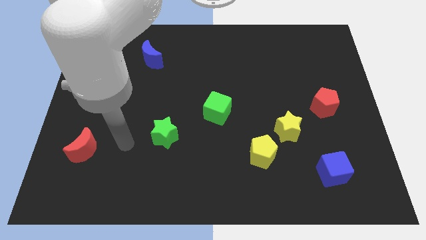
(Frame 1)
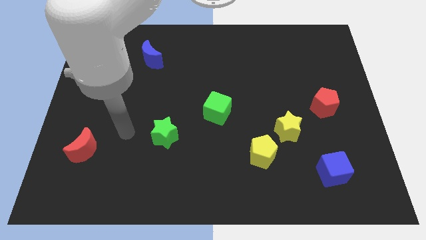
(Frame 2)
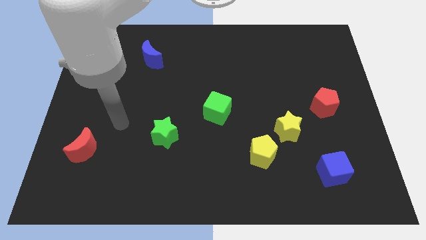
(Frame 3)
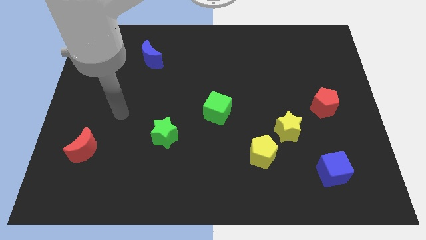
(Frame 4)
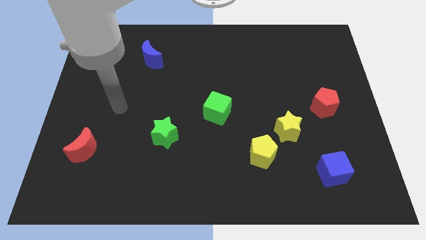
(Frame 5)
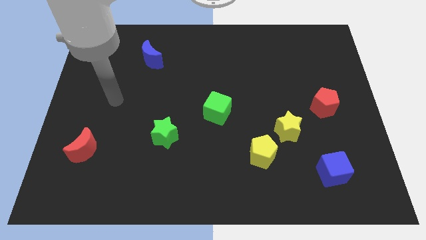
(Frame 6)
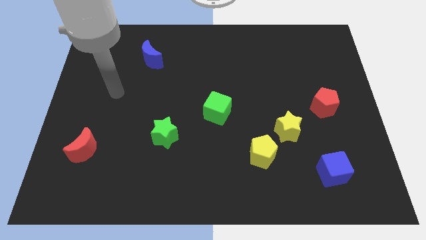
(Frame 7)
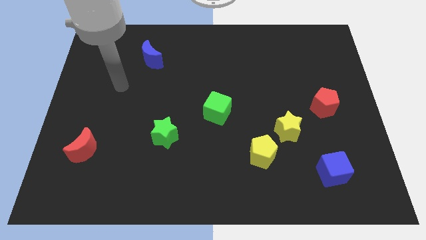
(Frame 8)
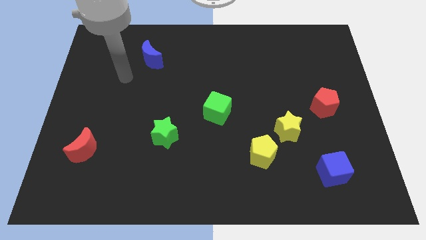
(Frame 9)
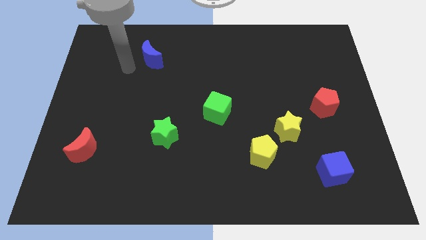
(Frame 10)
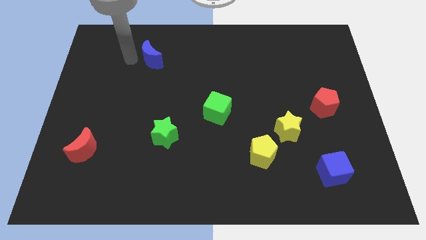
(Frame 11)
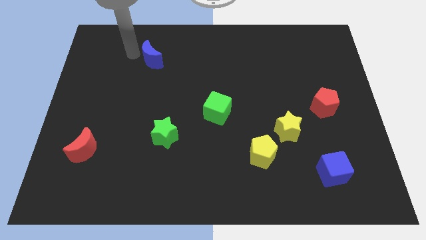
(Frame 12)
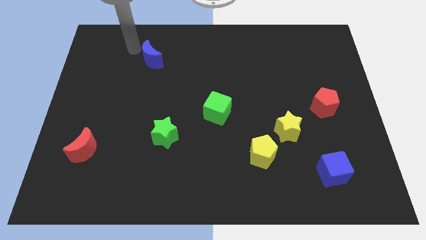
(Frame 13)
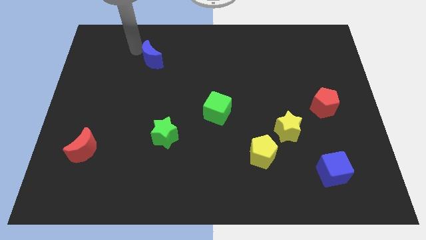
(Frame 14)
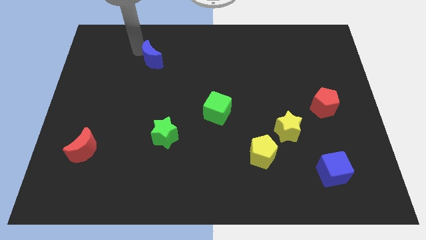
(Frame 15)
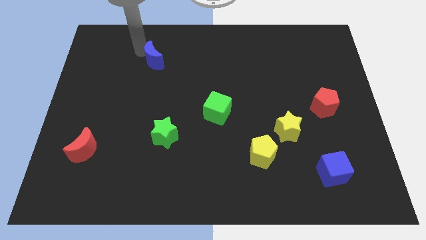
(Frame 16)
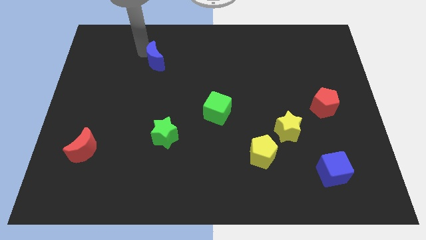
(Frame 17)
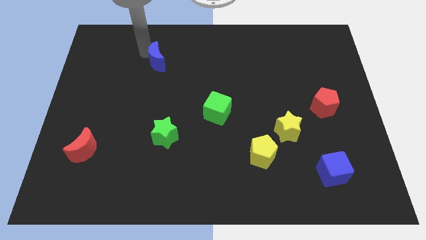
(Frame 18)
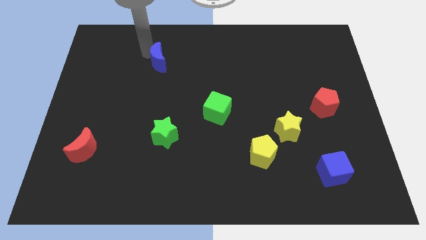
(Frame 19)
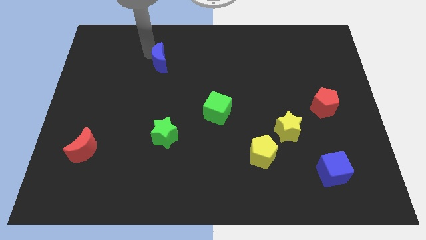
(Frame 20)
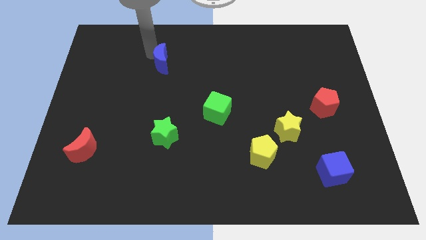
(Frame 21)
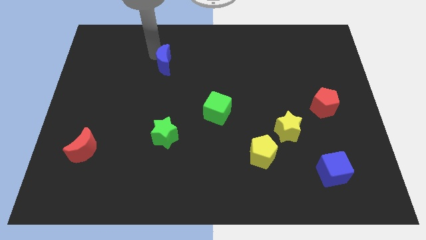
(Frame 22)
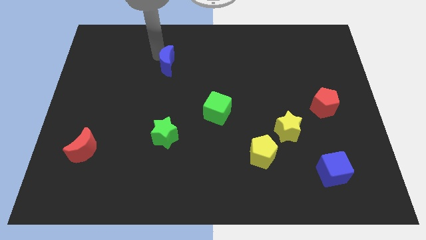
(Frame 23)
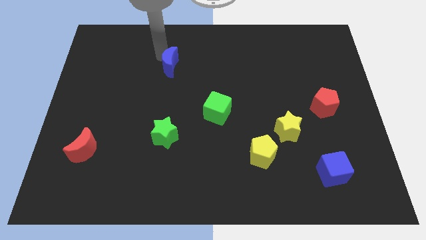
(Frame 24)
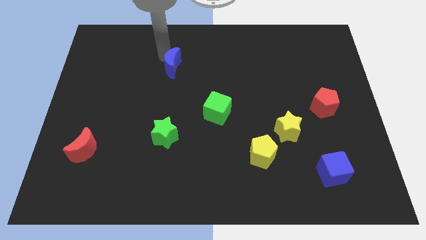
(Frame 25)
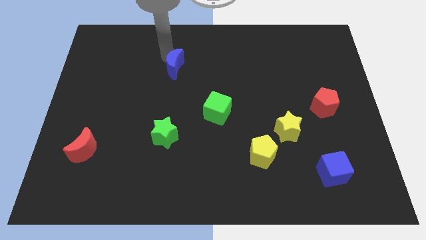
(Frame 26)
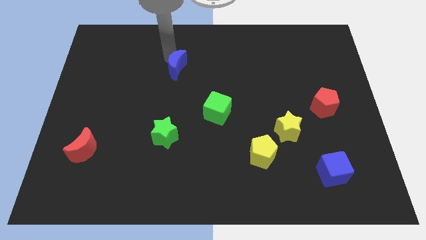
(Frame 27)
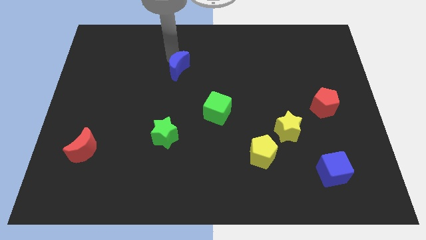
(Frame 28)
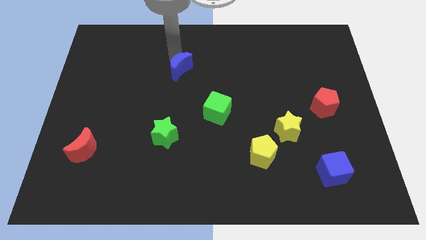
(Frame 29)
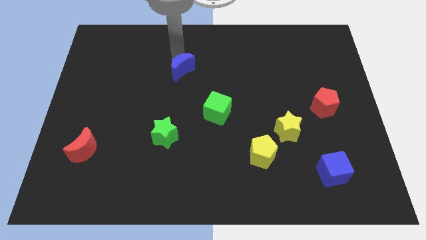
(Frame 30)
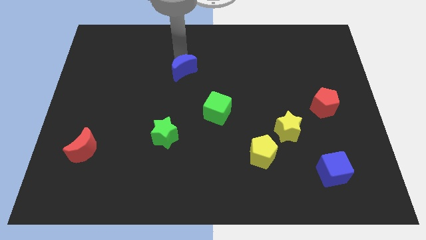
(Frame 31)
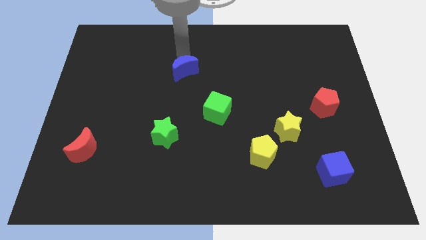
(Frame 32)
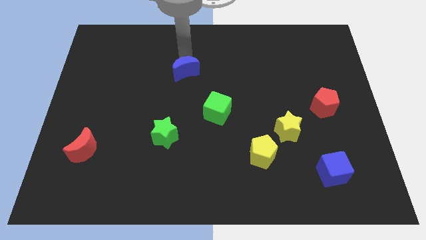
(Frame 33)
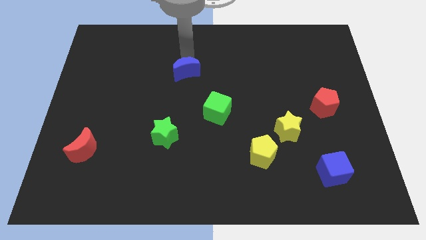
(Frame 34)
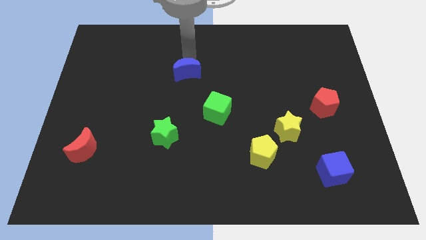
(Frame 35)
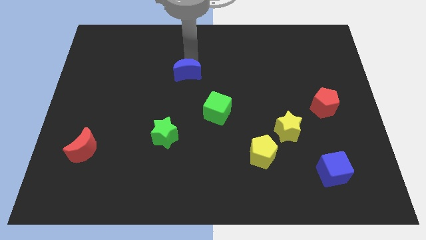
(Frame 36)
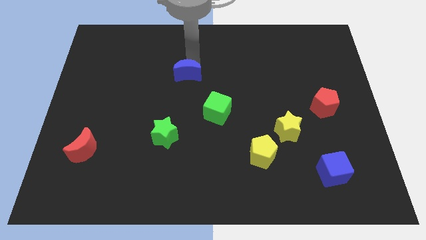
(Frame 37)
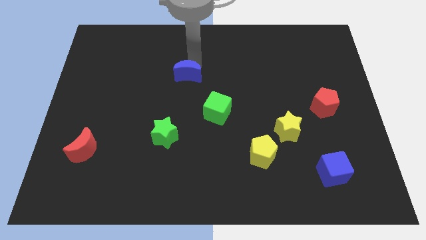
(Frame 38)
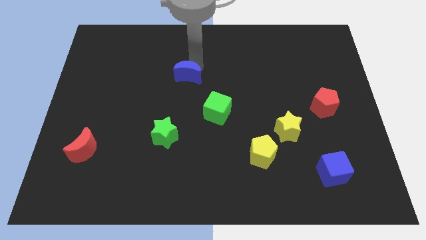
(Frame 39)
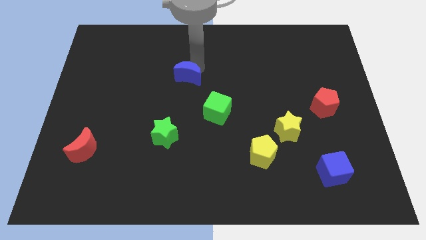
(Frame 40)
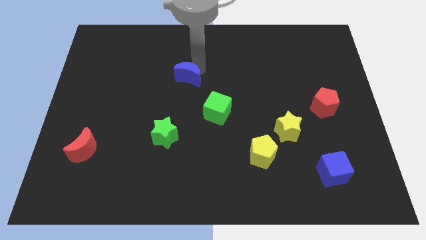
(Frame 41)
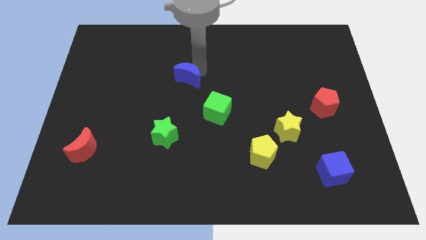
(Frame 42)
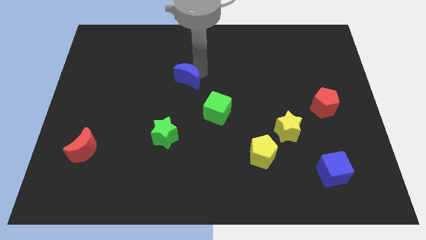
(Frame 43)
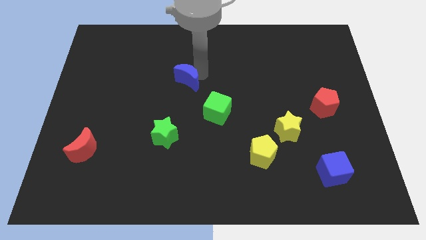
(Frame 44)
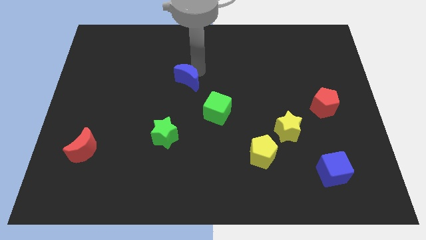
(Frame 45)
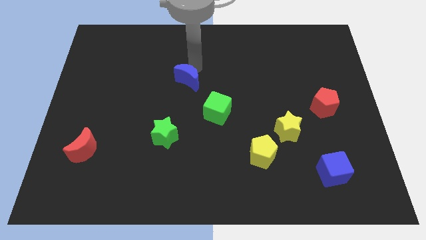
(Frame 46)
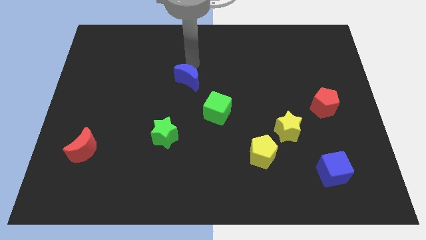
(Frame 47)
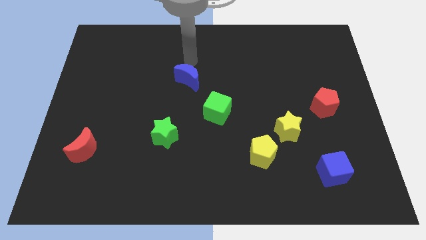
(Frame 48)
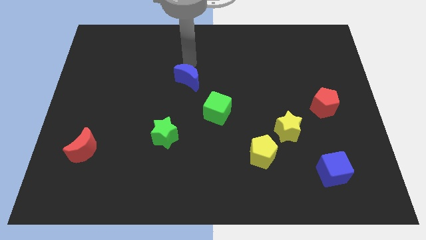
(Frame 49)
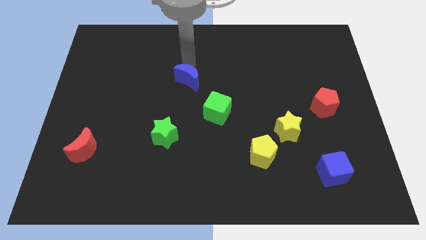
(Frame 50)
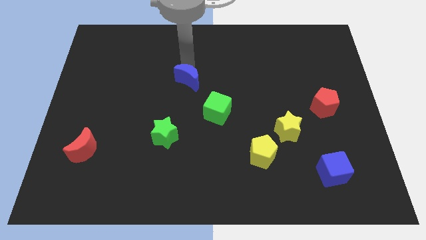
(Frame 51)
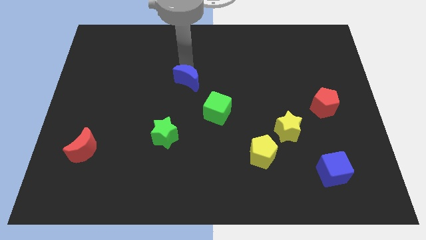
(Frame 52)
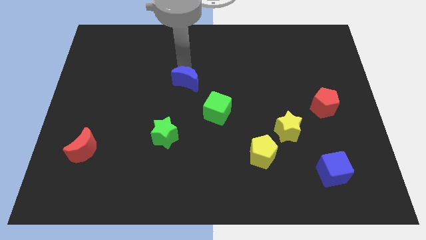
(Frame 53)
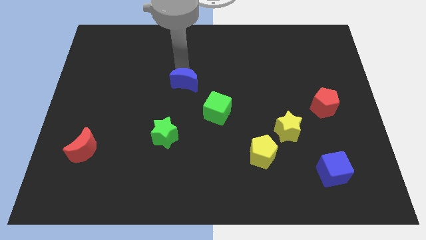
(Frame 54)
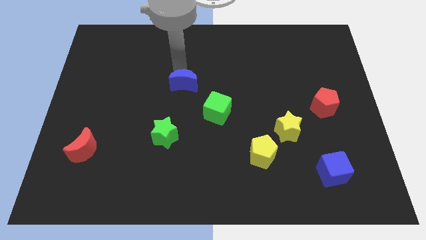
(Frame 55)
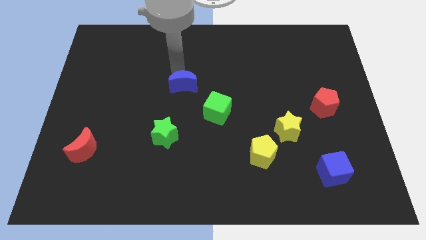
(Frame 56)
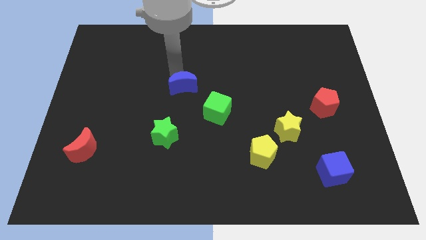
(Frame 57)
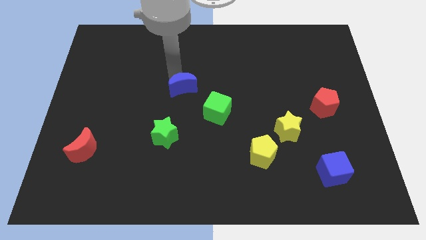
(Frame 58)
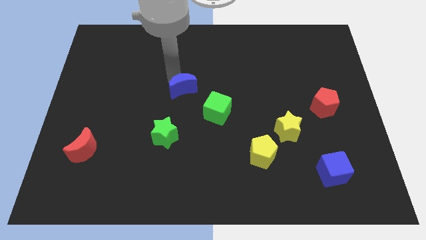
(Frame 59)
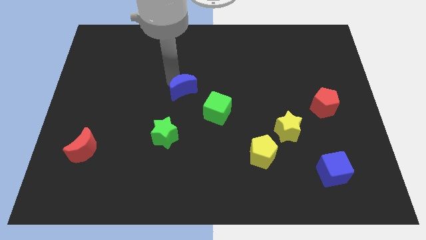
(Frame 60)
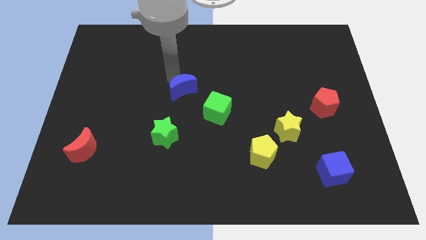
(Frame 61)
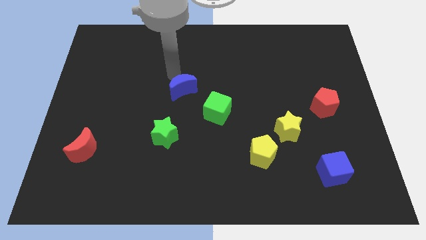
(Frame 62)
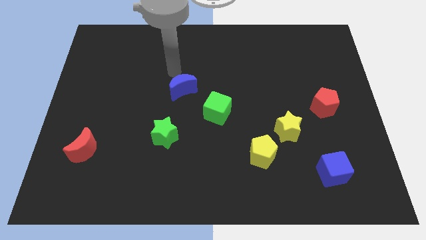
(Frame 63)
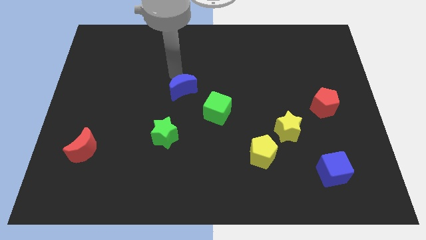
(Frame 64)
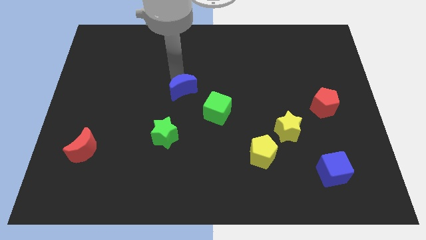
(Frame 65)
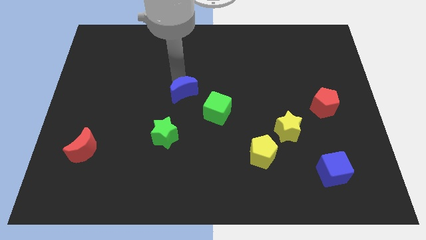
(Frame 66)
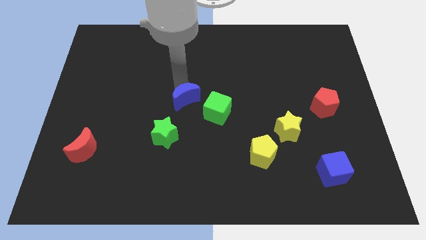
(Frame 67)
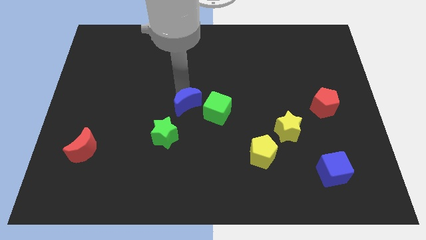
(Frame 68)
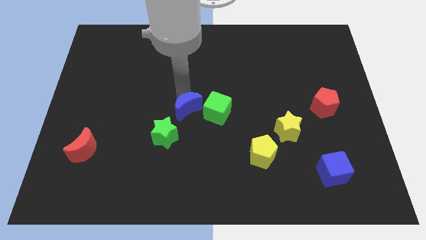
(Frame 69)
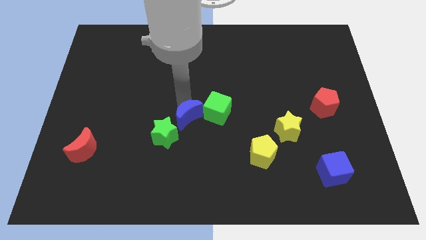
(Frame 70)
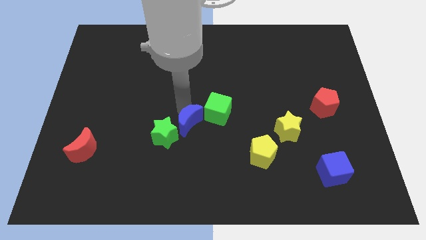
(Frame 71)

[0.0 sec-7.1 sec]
push the blue moon right of the green star
